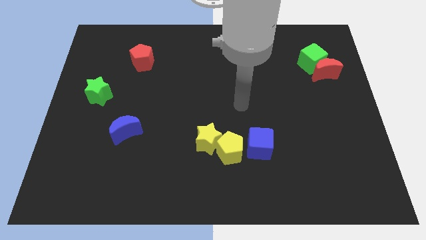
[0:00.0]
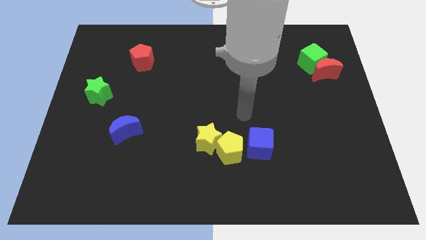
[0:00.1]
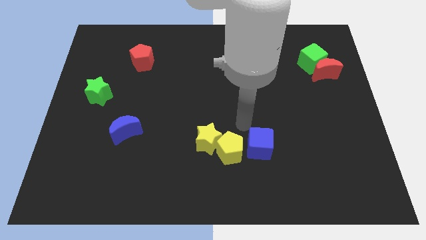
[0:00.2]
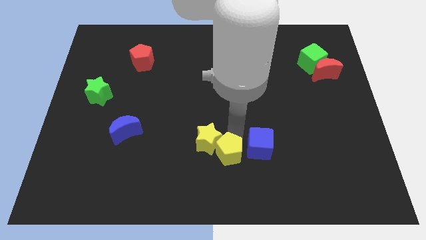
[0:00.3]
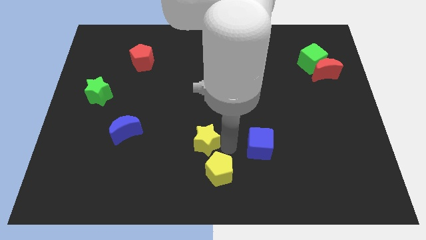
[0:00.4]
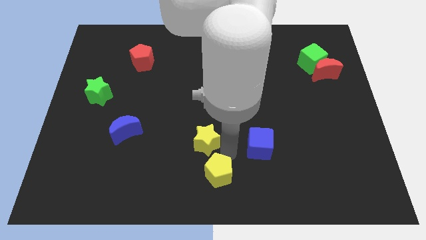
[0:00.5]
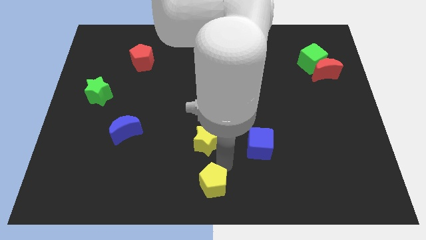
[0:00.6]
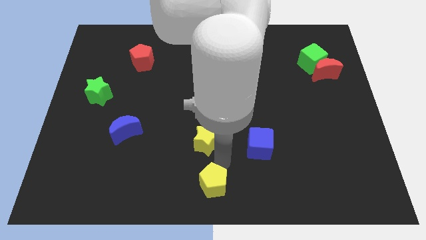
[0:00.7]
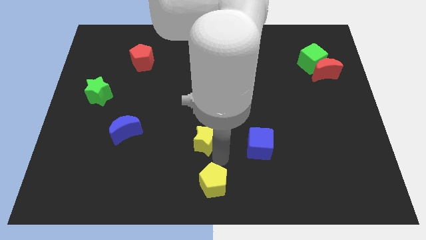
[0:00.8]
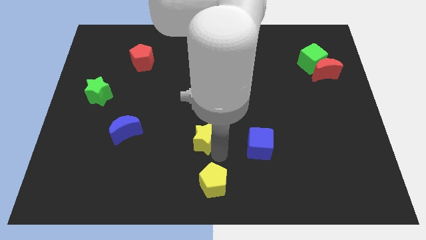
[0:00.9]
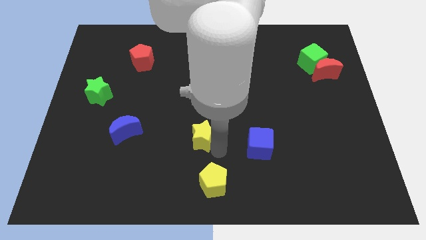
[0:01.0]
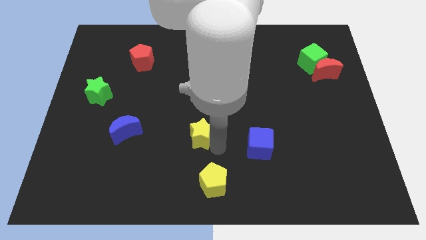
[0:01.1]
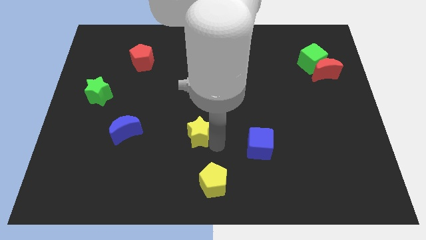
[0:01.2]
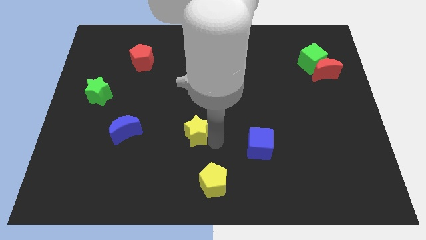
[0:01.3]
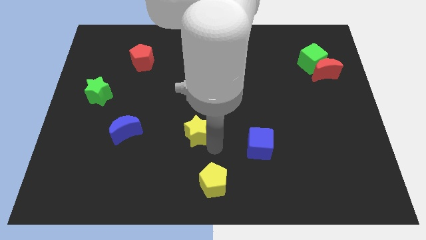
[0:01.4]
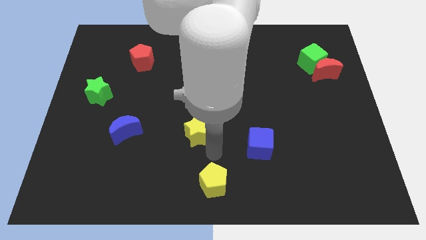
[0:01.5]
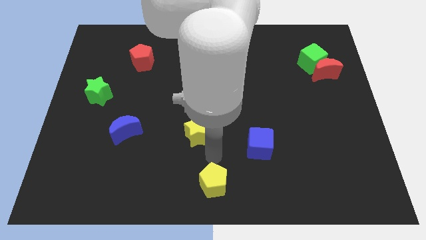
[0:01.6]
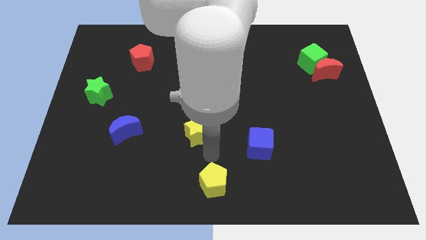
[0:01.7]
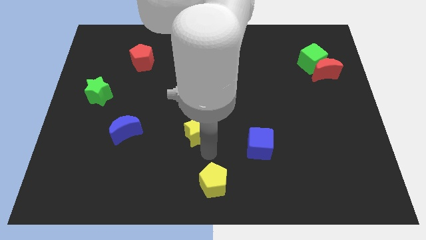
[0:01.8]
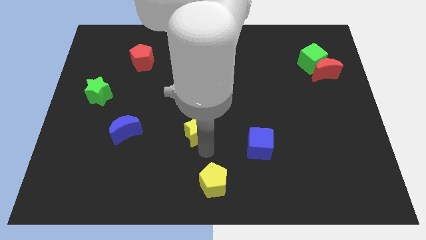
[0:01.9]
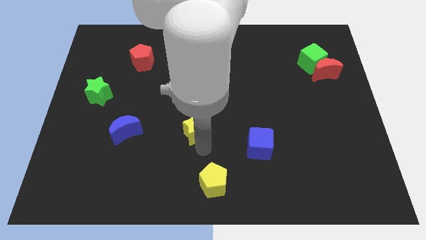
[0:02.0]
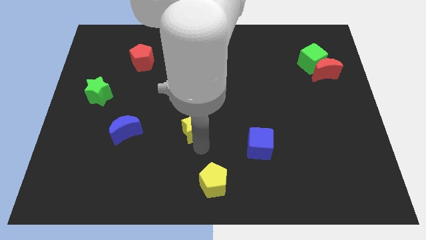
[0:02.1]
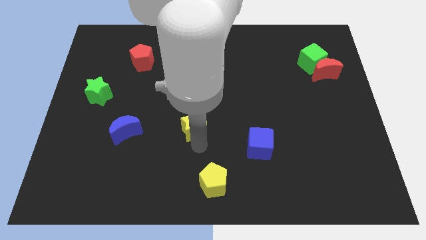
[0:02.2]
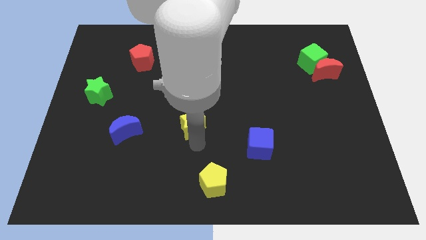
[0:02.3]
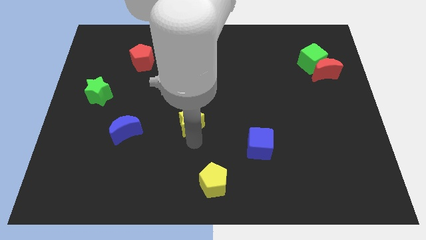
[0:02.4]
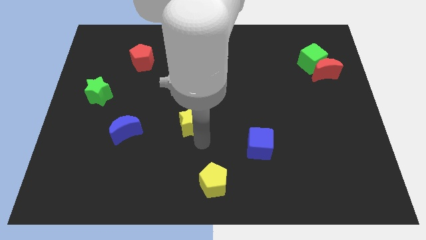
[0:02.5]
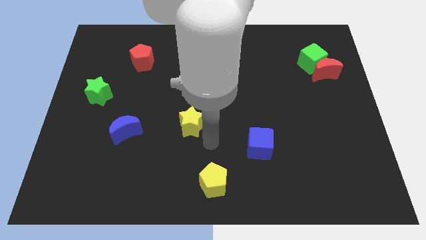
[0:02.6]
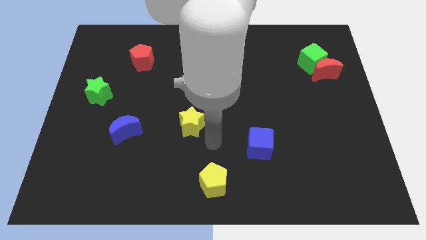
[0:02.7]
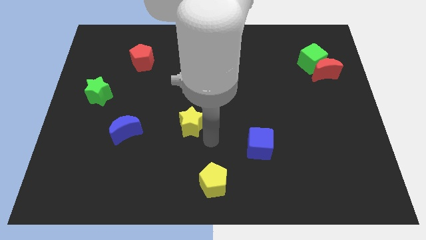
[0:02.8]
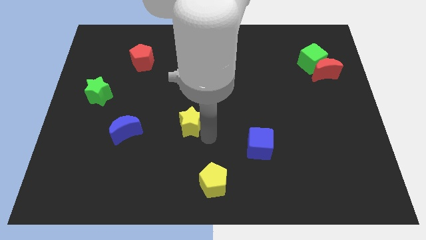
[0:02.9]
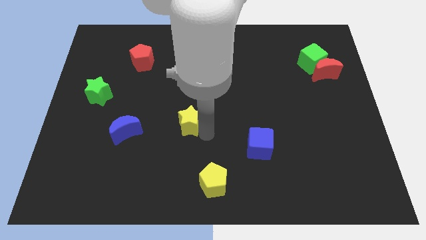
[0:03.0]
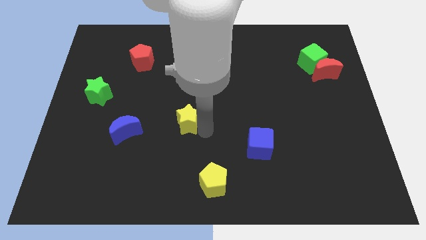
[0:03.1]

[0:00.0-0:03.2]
push the yellow star up and left a little

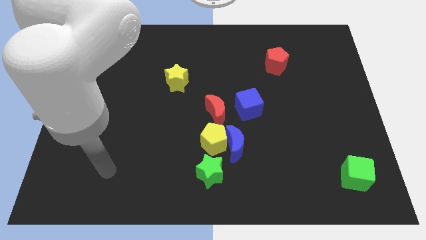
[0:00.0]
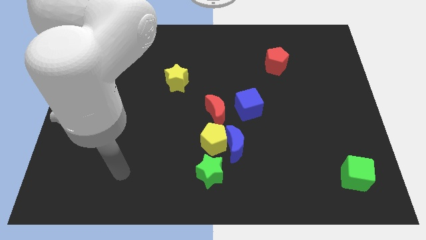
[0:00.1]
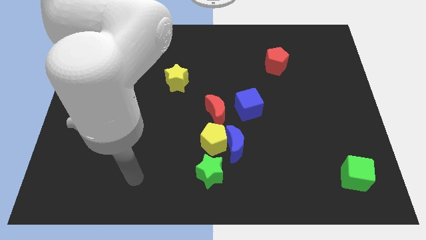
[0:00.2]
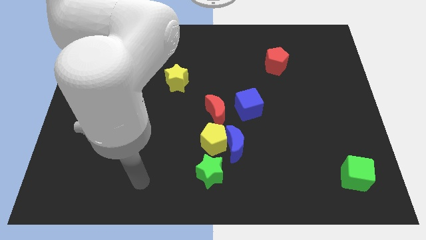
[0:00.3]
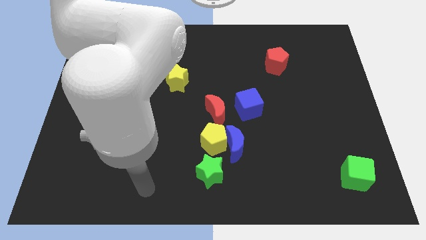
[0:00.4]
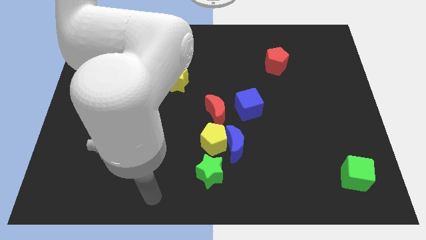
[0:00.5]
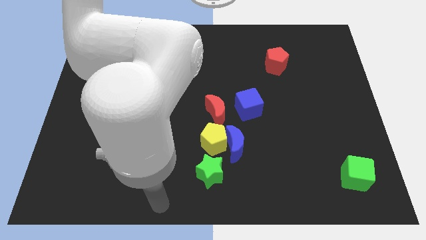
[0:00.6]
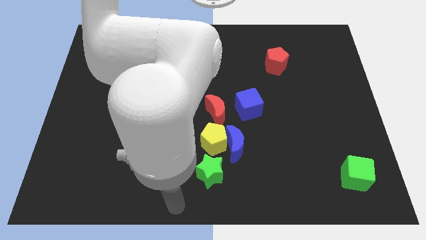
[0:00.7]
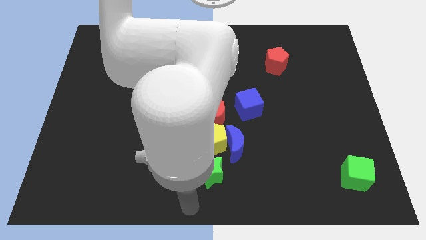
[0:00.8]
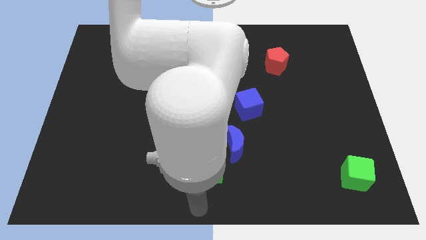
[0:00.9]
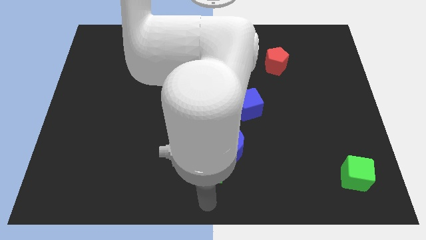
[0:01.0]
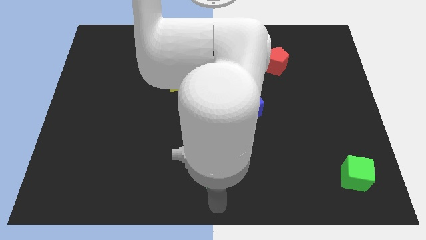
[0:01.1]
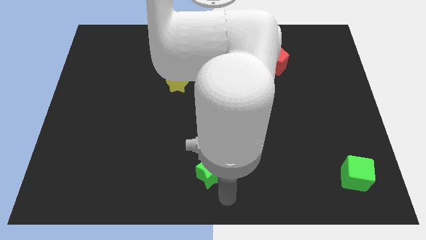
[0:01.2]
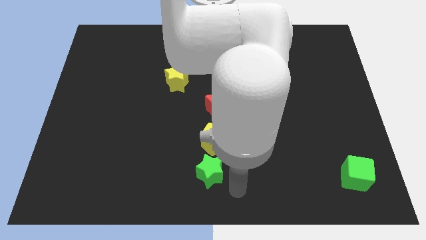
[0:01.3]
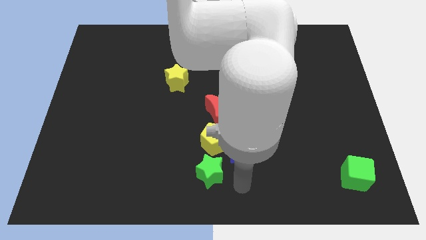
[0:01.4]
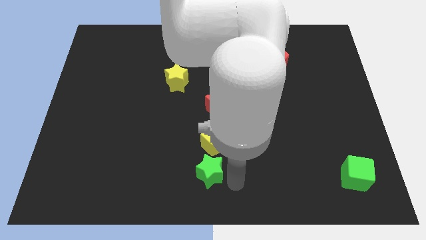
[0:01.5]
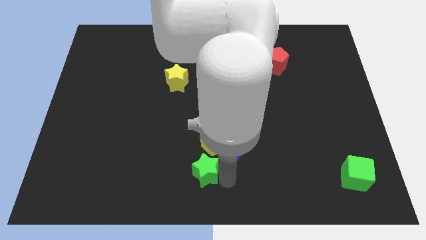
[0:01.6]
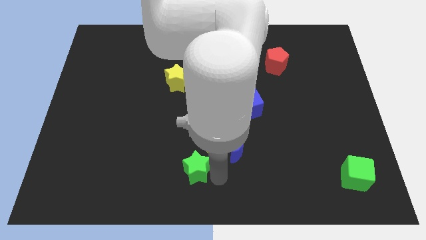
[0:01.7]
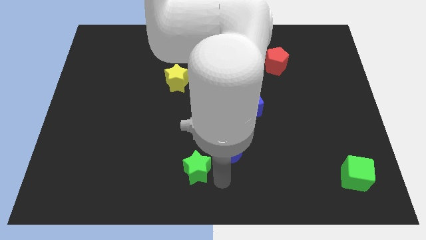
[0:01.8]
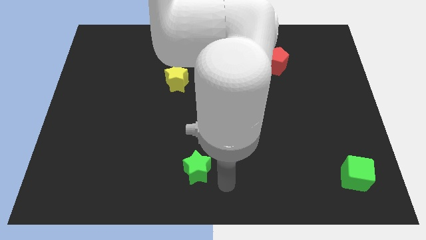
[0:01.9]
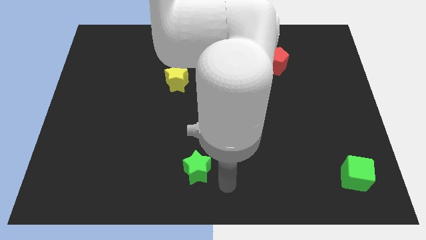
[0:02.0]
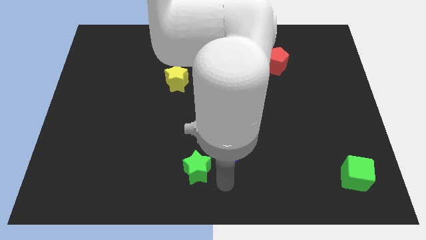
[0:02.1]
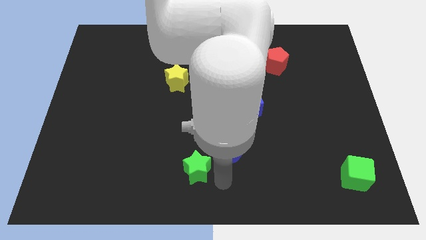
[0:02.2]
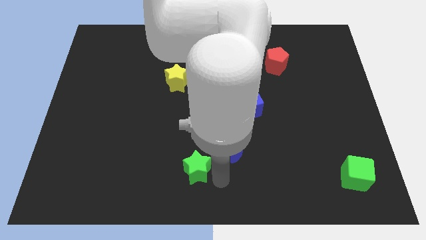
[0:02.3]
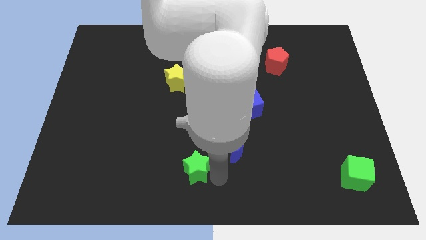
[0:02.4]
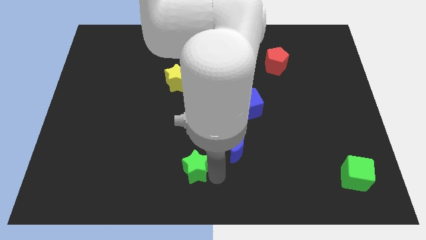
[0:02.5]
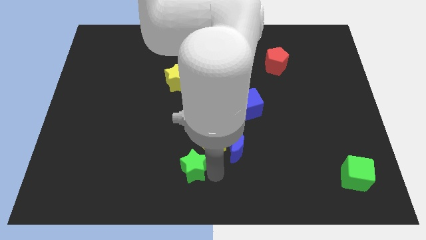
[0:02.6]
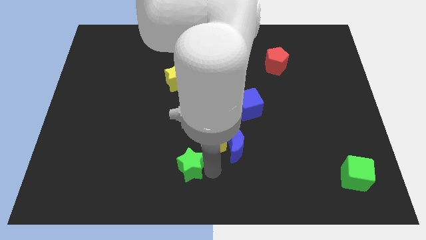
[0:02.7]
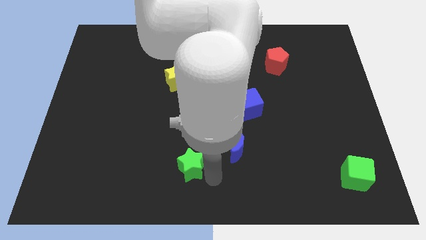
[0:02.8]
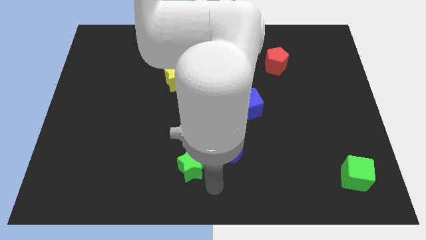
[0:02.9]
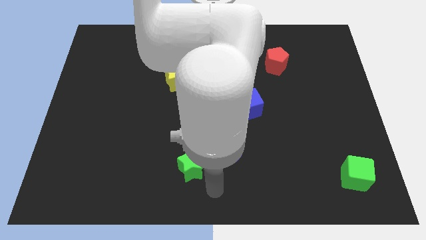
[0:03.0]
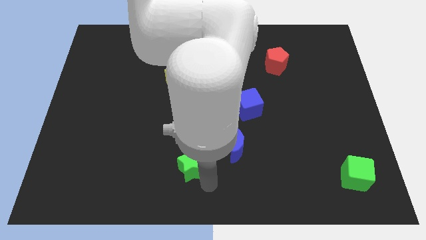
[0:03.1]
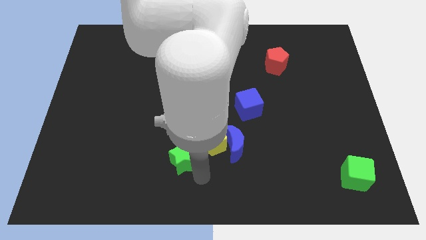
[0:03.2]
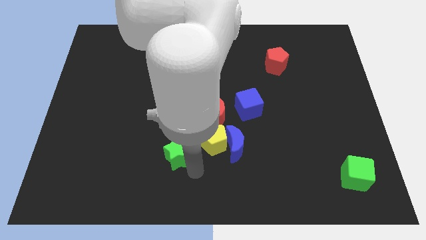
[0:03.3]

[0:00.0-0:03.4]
push the green star a bit diagonally upwards and left

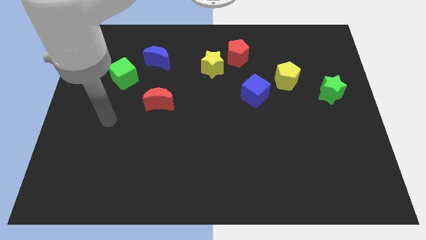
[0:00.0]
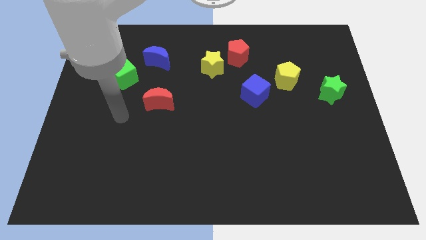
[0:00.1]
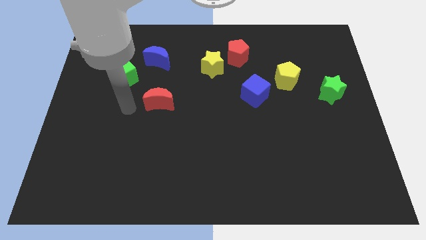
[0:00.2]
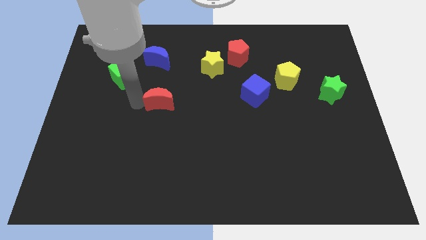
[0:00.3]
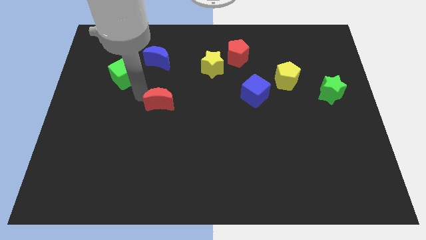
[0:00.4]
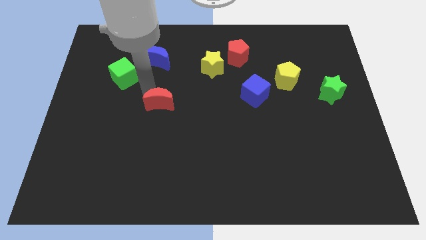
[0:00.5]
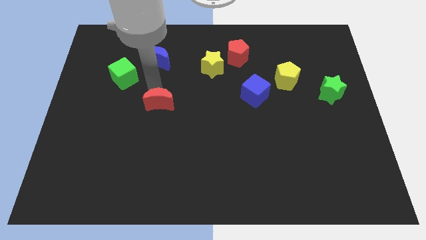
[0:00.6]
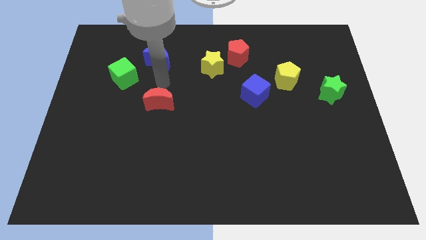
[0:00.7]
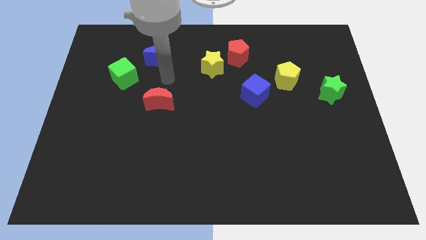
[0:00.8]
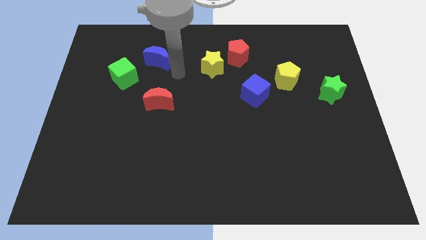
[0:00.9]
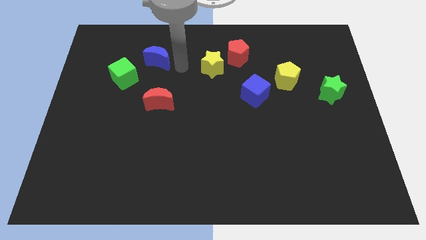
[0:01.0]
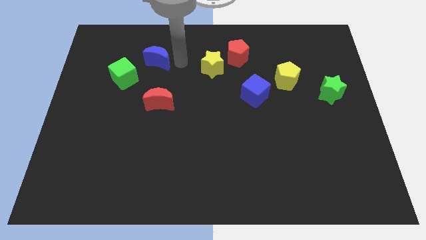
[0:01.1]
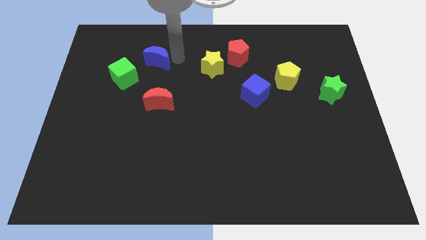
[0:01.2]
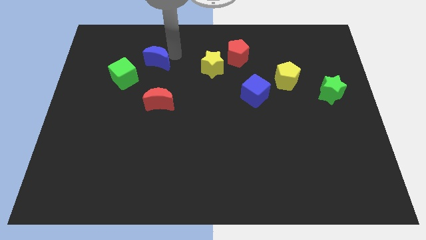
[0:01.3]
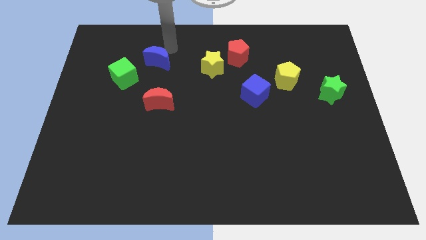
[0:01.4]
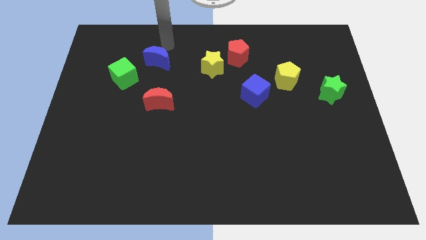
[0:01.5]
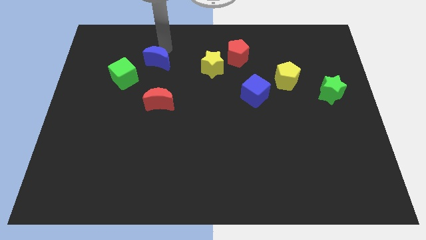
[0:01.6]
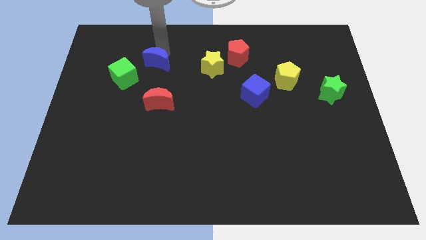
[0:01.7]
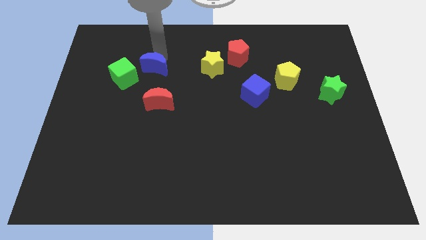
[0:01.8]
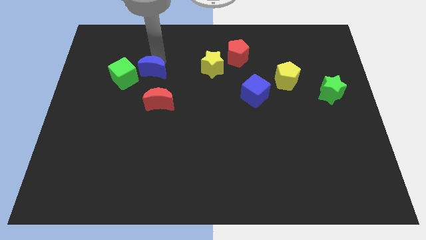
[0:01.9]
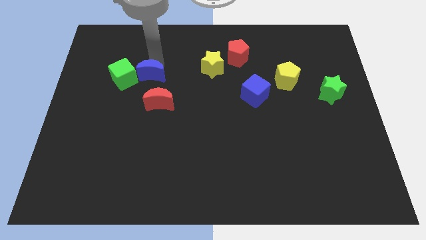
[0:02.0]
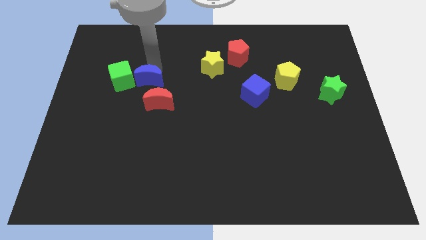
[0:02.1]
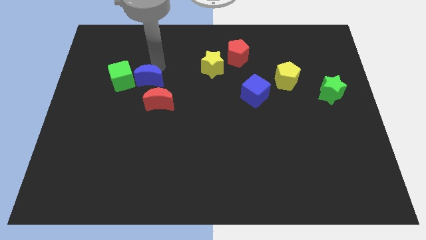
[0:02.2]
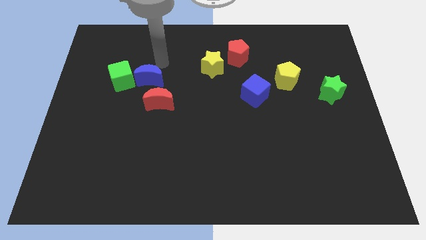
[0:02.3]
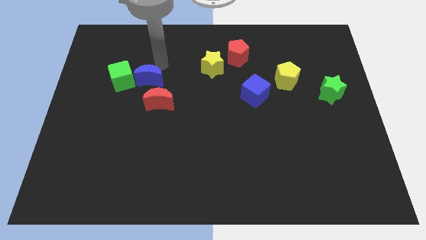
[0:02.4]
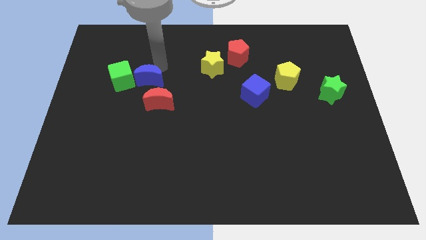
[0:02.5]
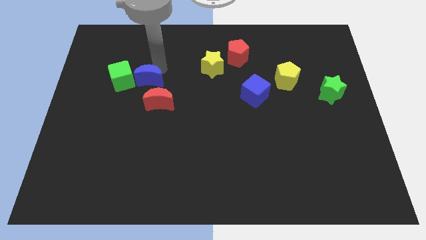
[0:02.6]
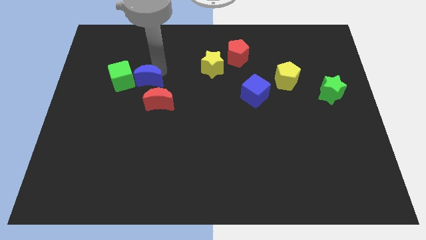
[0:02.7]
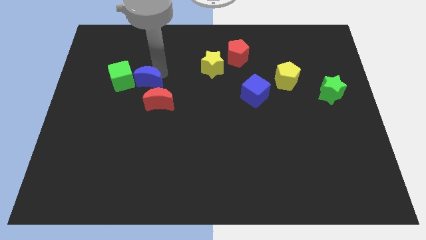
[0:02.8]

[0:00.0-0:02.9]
push the blue moon down somewhat
